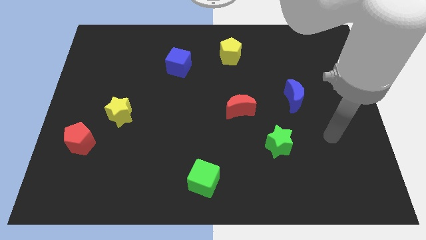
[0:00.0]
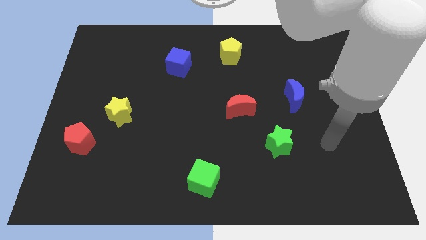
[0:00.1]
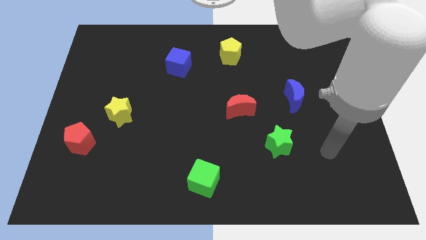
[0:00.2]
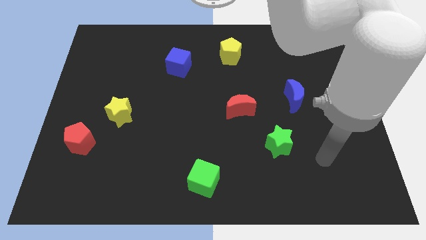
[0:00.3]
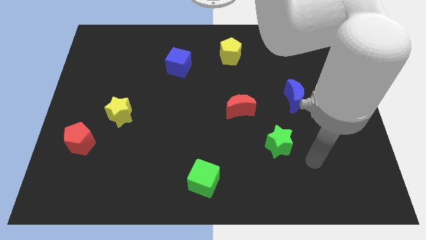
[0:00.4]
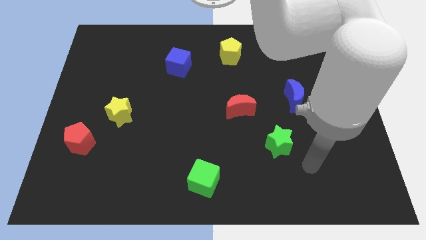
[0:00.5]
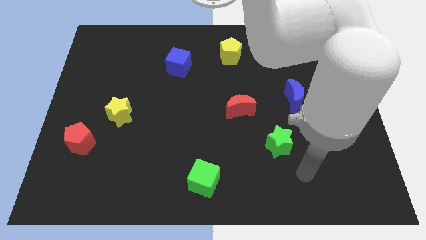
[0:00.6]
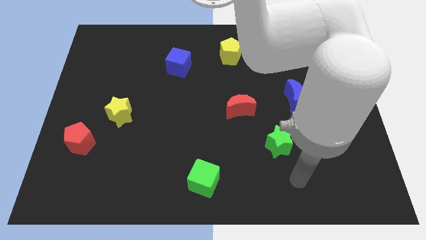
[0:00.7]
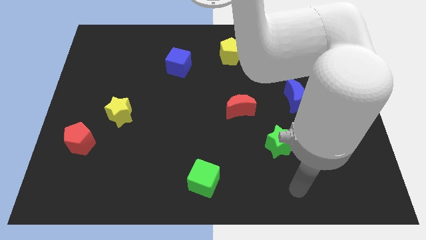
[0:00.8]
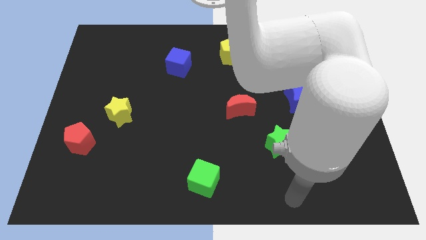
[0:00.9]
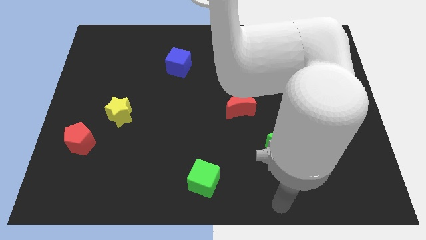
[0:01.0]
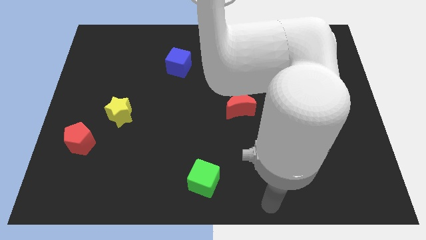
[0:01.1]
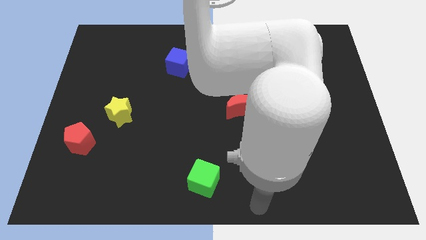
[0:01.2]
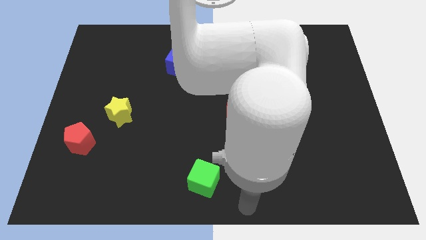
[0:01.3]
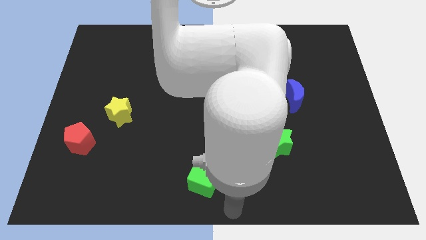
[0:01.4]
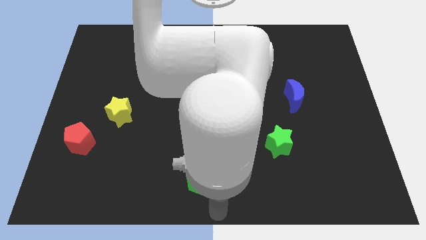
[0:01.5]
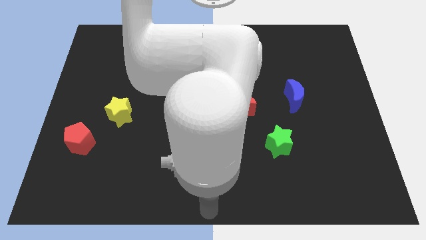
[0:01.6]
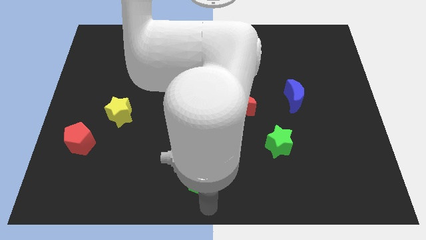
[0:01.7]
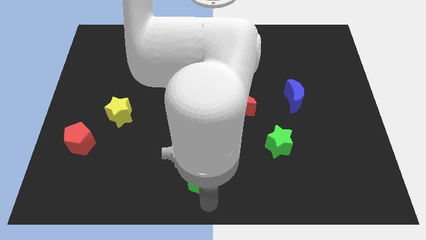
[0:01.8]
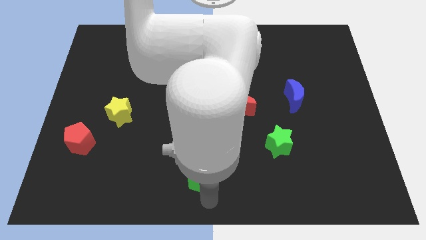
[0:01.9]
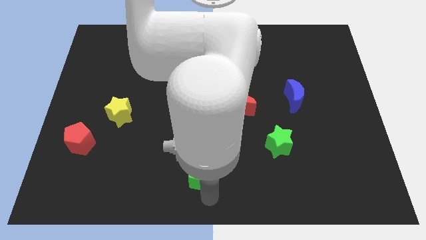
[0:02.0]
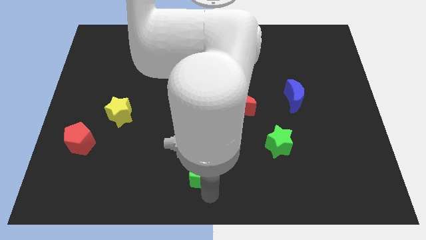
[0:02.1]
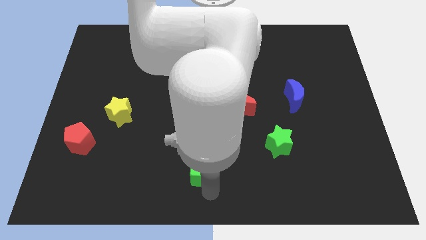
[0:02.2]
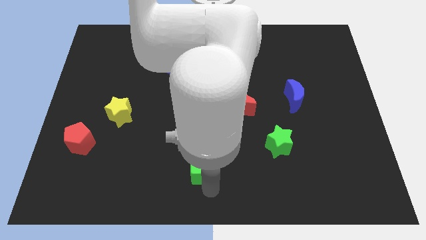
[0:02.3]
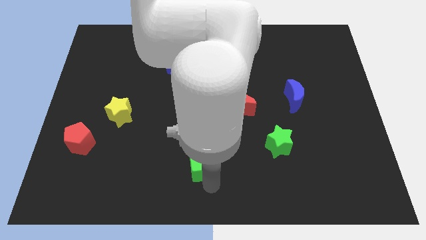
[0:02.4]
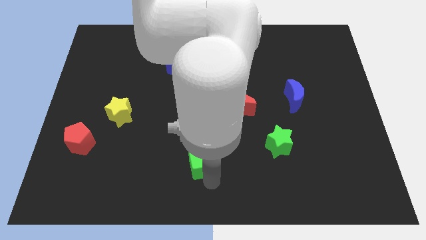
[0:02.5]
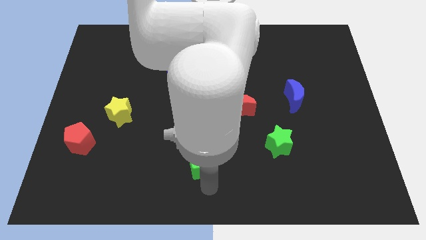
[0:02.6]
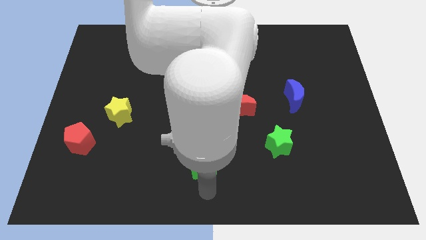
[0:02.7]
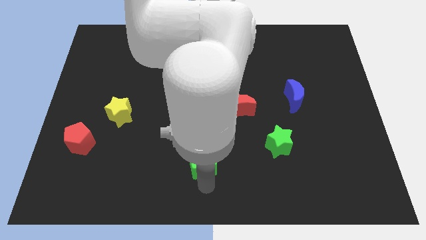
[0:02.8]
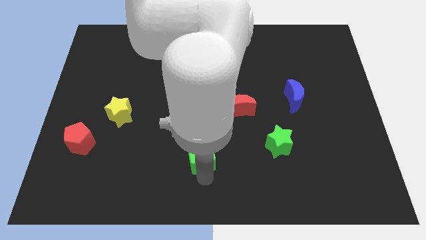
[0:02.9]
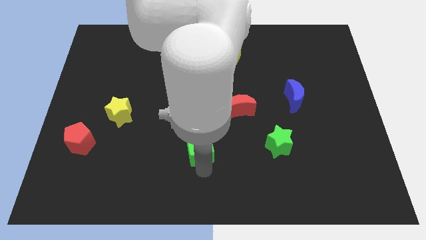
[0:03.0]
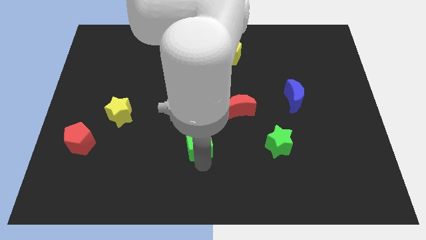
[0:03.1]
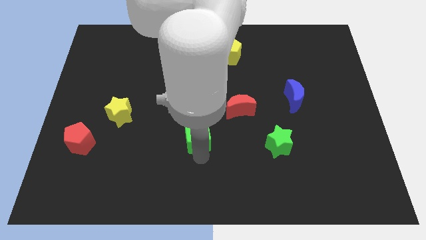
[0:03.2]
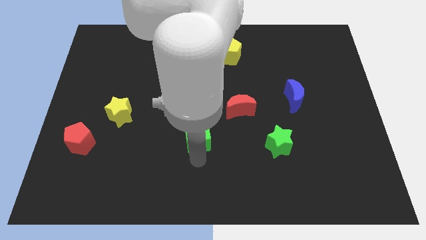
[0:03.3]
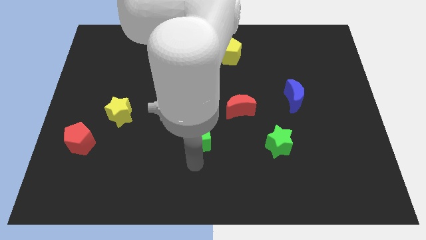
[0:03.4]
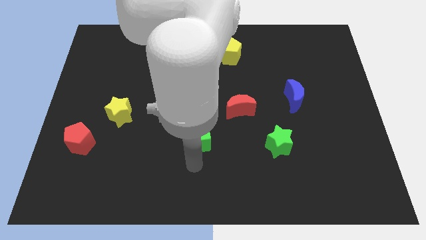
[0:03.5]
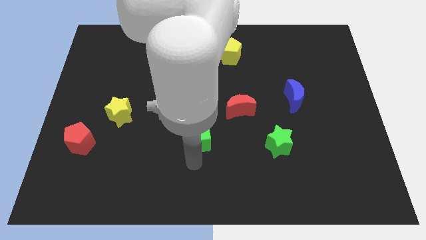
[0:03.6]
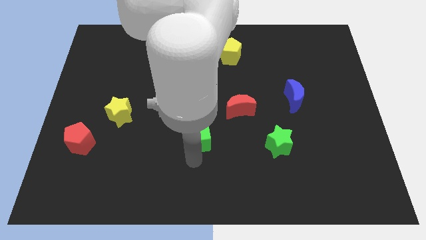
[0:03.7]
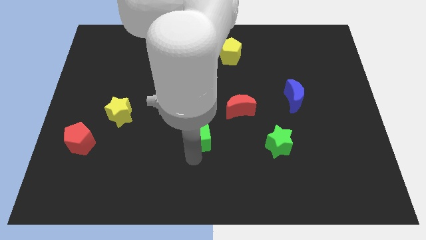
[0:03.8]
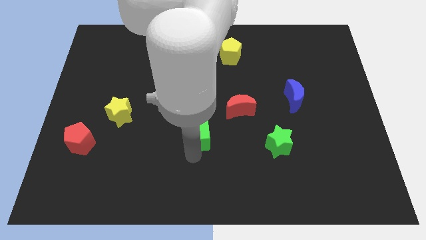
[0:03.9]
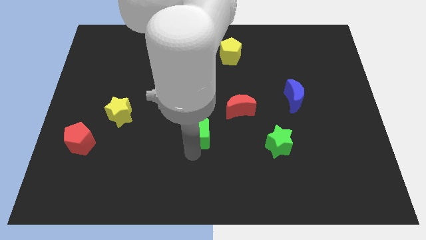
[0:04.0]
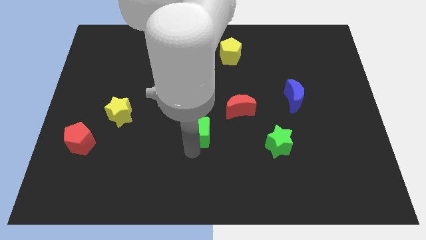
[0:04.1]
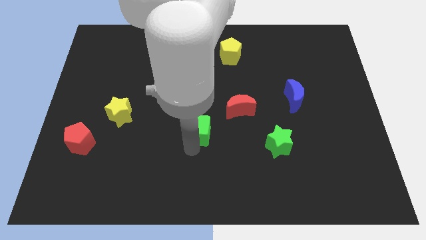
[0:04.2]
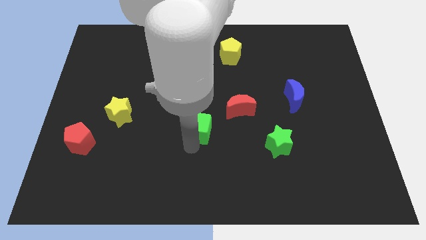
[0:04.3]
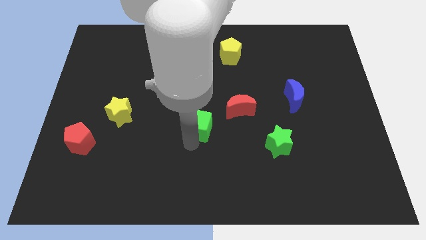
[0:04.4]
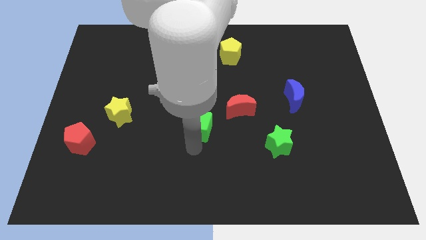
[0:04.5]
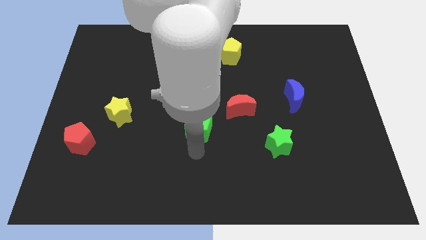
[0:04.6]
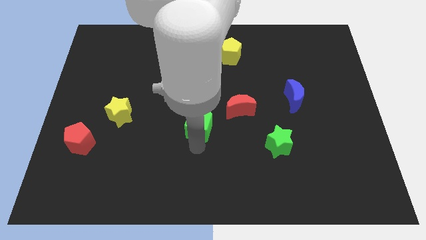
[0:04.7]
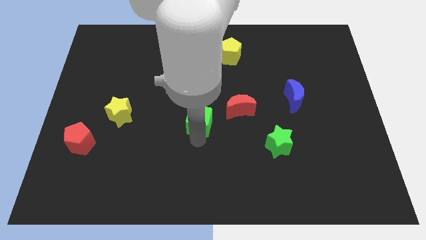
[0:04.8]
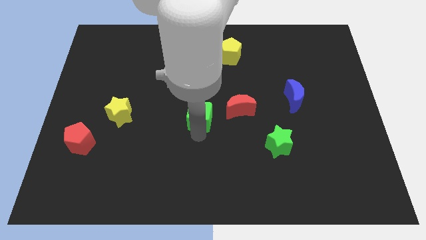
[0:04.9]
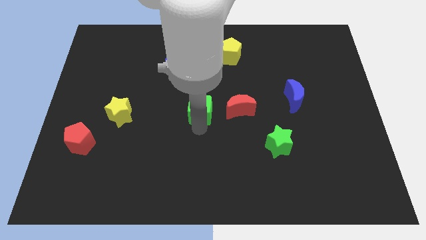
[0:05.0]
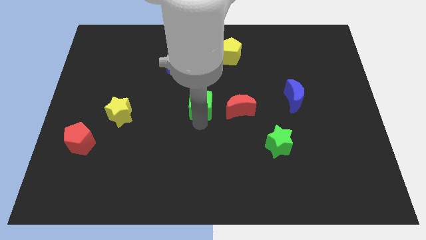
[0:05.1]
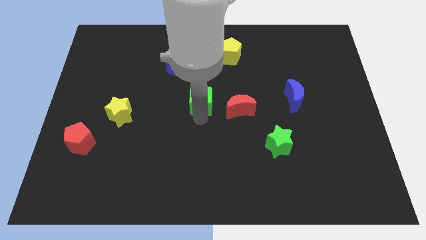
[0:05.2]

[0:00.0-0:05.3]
push the green cube up

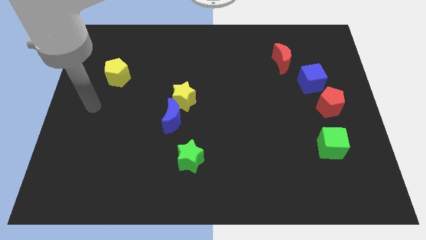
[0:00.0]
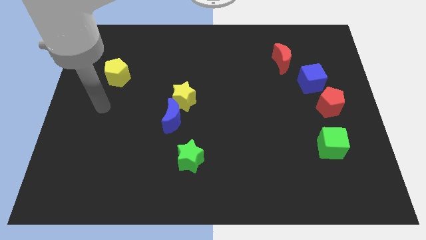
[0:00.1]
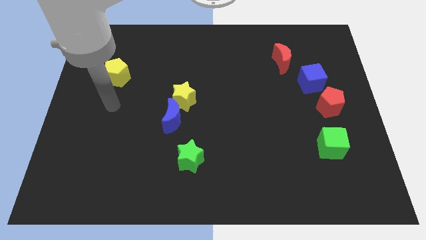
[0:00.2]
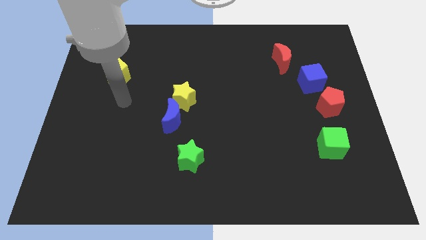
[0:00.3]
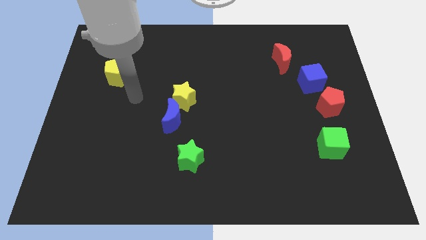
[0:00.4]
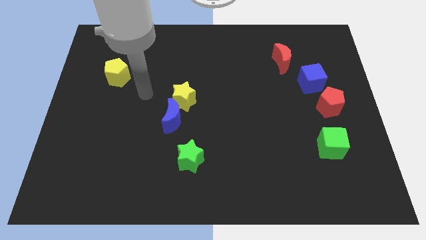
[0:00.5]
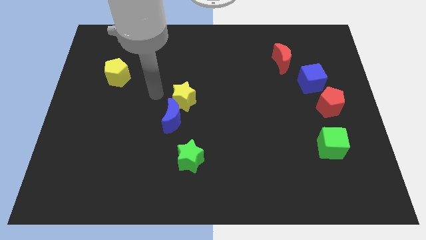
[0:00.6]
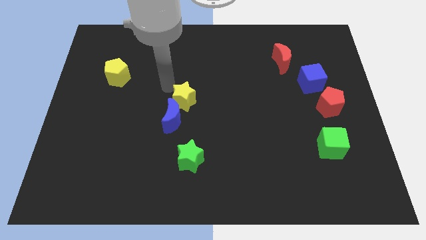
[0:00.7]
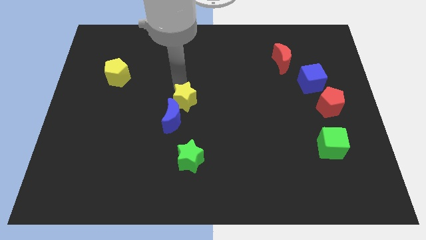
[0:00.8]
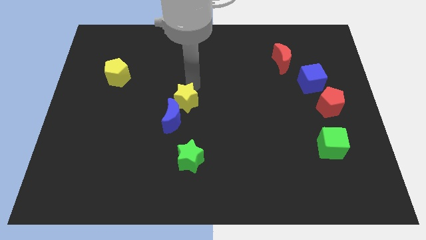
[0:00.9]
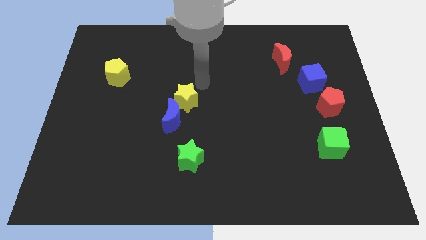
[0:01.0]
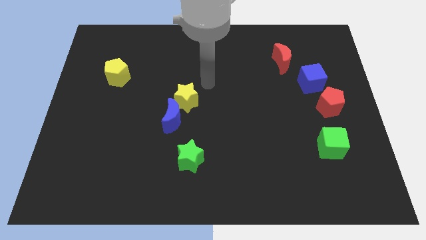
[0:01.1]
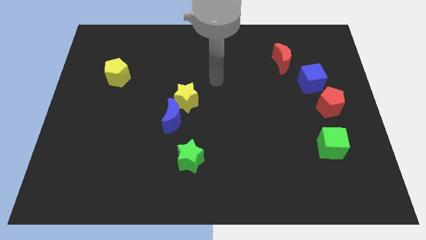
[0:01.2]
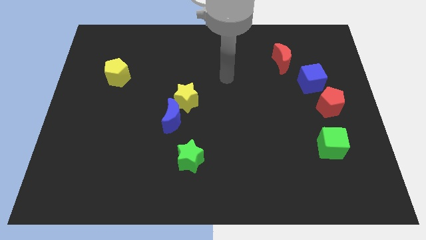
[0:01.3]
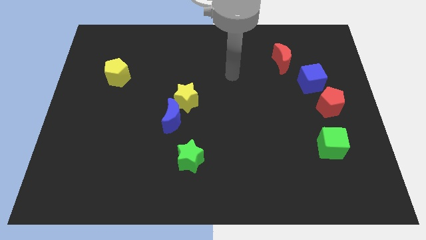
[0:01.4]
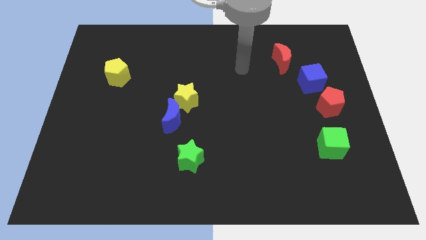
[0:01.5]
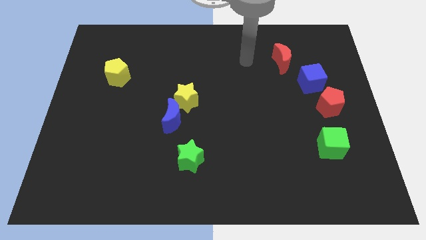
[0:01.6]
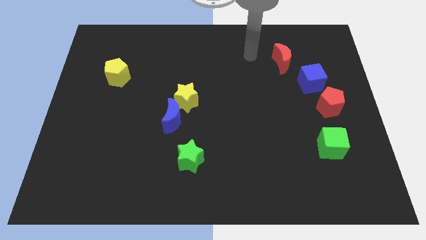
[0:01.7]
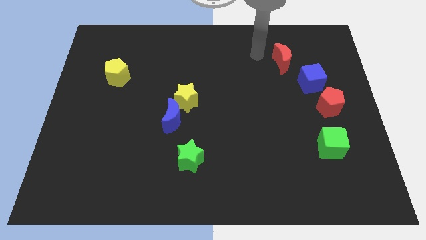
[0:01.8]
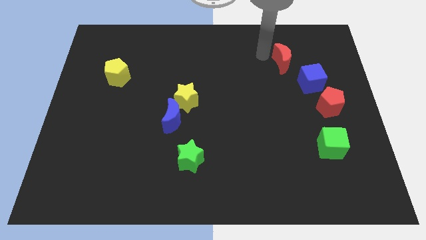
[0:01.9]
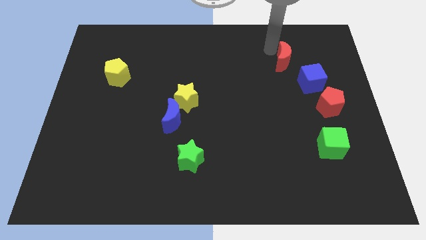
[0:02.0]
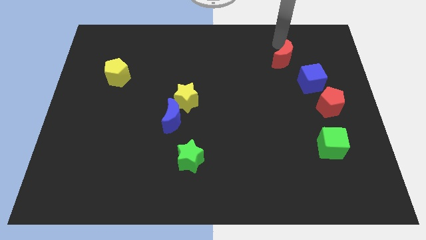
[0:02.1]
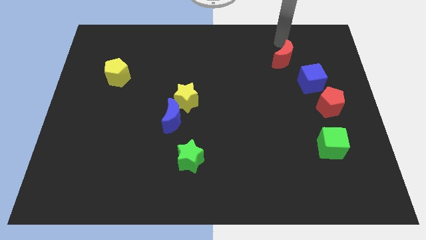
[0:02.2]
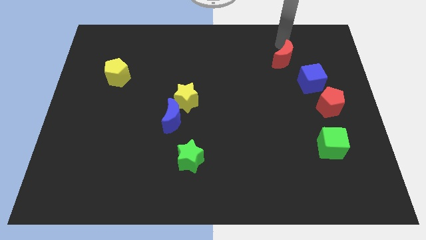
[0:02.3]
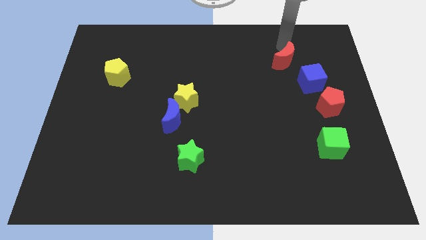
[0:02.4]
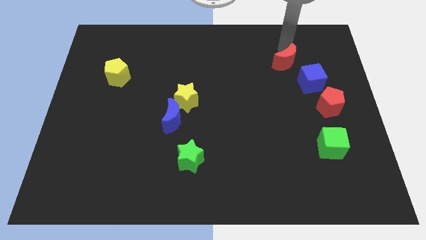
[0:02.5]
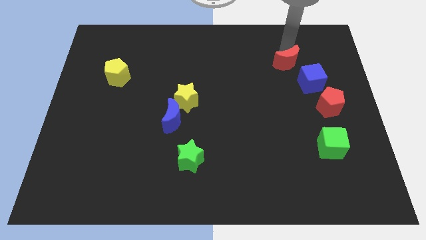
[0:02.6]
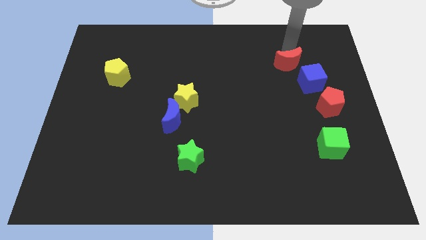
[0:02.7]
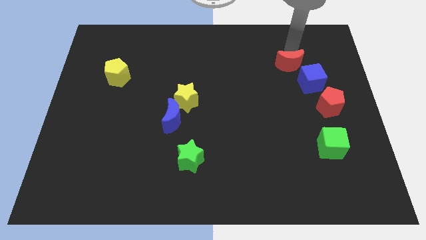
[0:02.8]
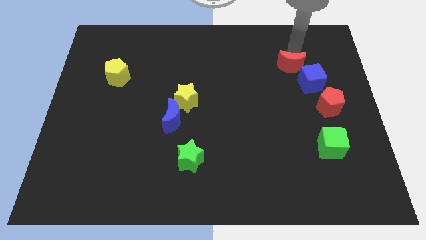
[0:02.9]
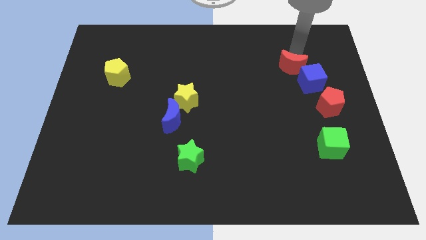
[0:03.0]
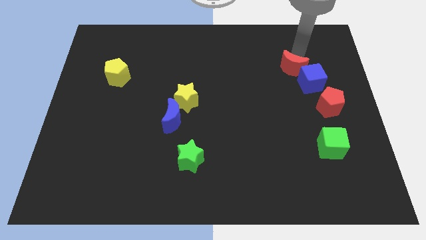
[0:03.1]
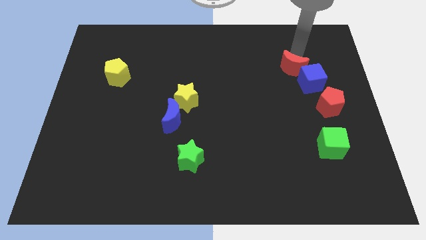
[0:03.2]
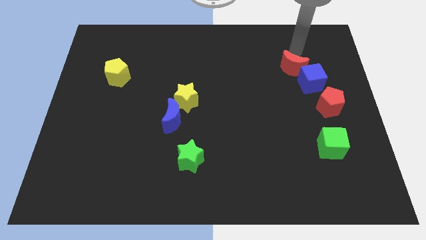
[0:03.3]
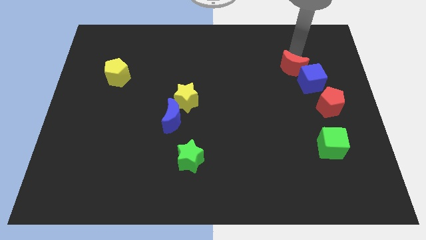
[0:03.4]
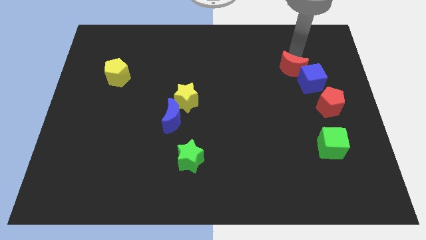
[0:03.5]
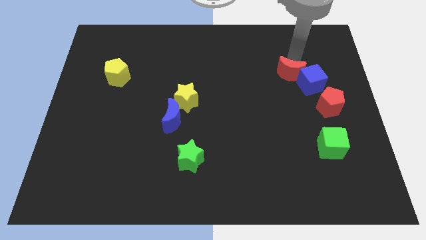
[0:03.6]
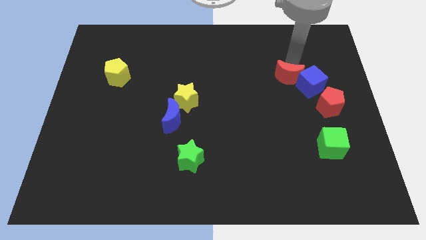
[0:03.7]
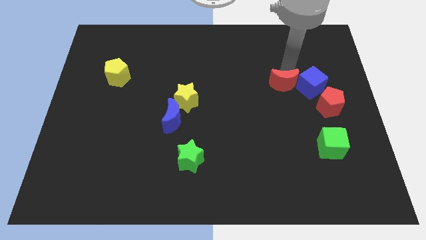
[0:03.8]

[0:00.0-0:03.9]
slightly slide the red moon down
